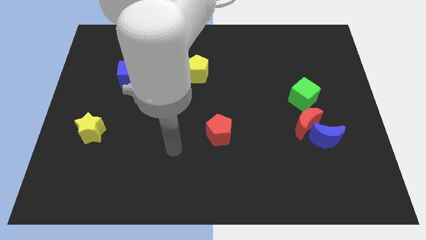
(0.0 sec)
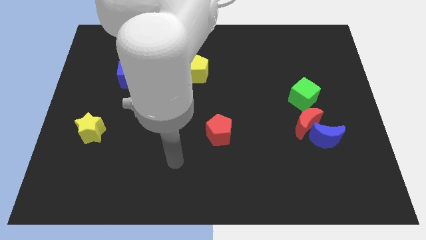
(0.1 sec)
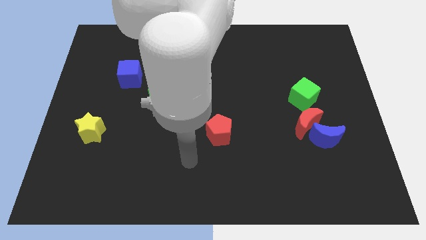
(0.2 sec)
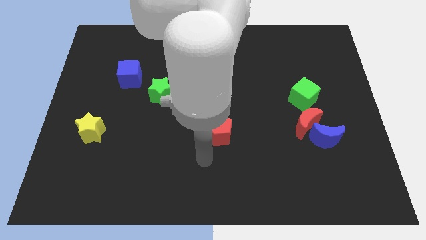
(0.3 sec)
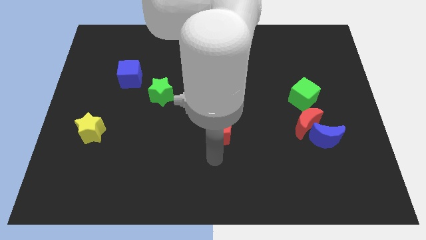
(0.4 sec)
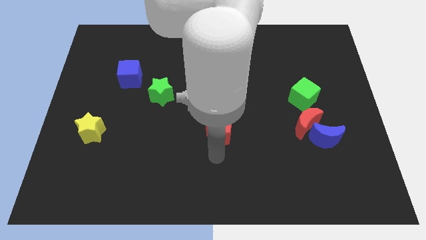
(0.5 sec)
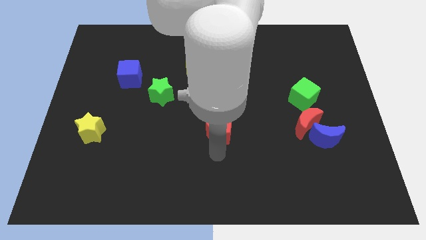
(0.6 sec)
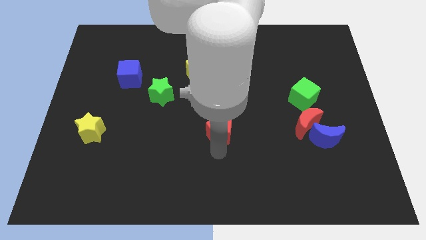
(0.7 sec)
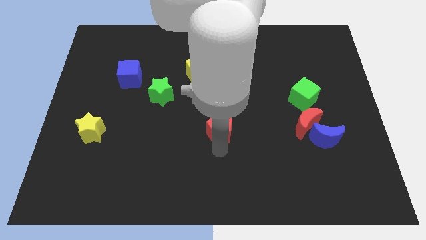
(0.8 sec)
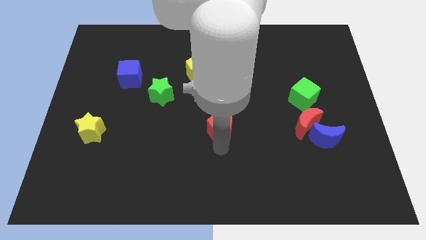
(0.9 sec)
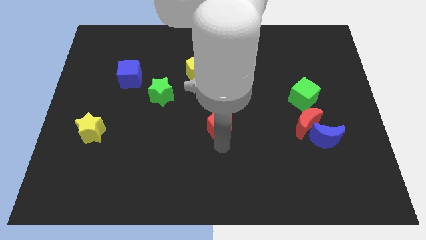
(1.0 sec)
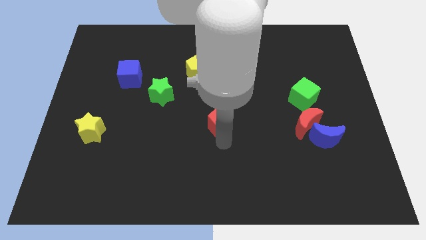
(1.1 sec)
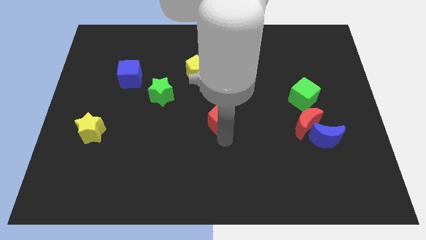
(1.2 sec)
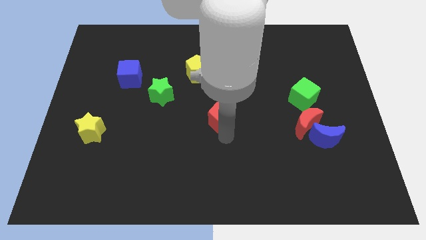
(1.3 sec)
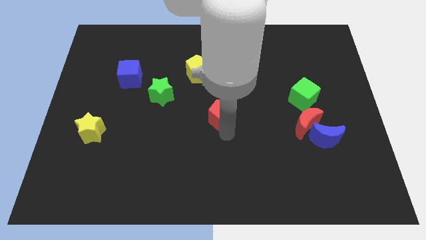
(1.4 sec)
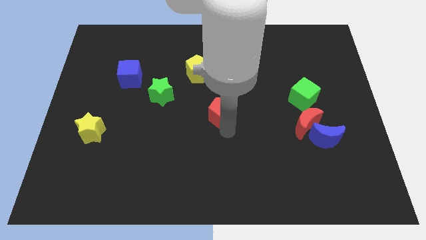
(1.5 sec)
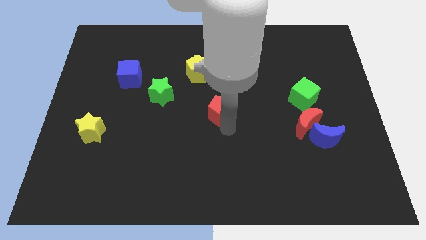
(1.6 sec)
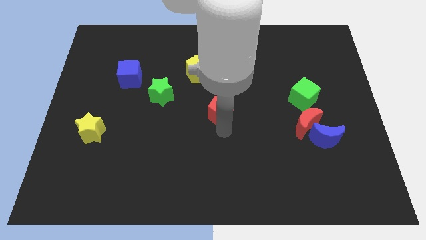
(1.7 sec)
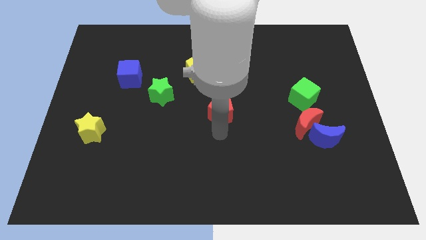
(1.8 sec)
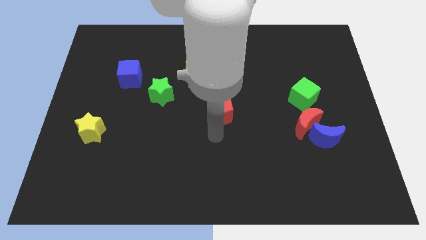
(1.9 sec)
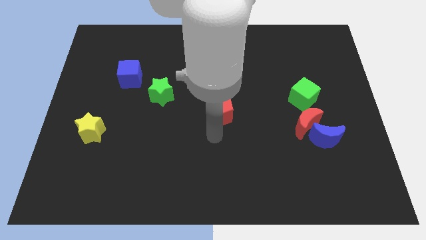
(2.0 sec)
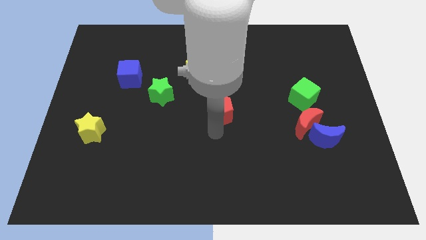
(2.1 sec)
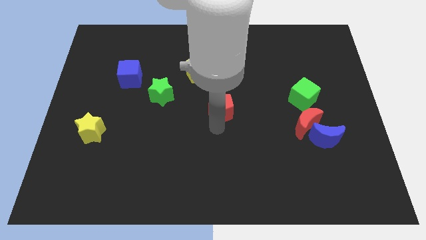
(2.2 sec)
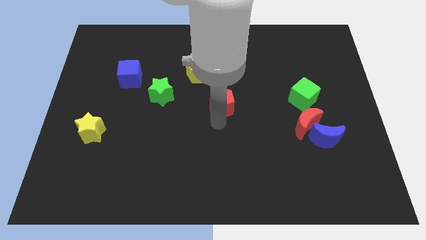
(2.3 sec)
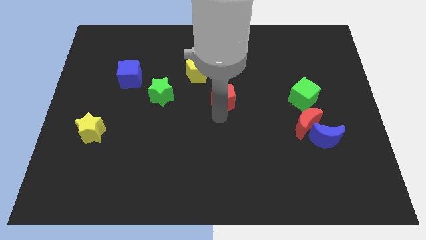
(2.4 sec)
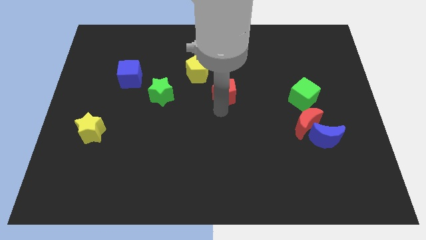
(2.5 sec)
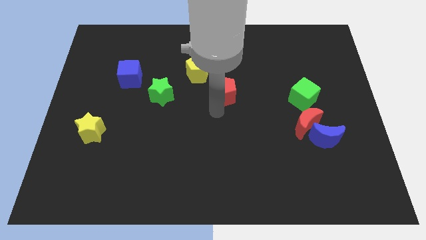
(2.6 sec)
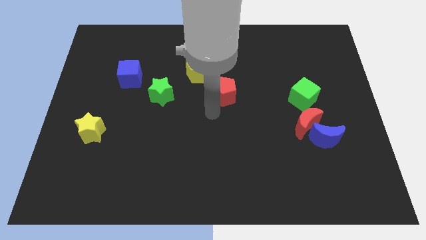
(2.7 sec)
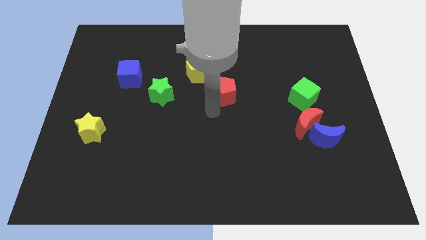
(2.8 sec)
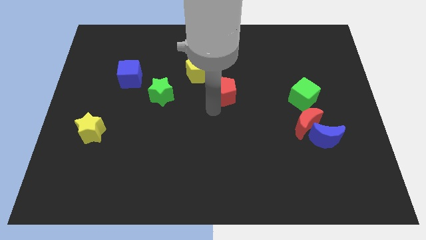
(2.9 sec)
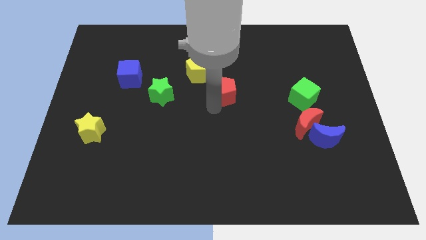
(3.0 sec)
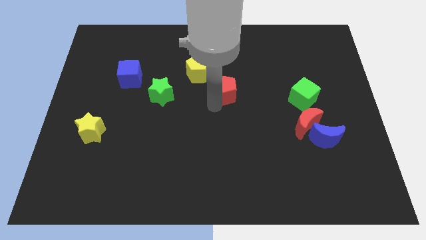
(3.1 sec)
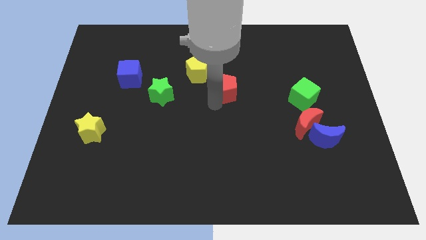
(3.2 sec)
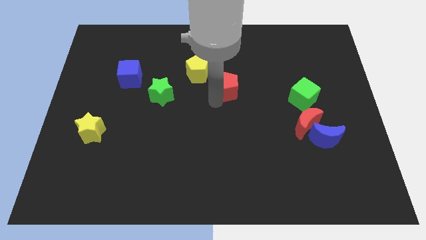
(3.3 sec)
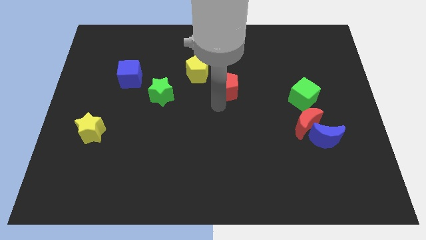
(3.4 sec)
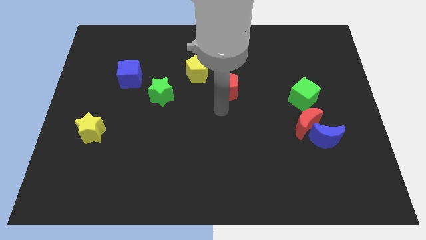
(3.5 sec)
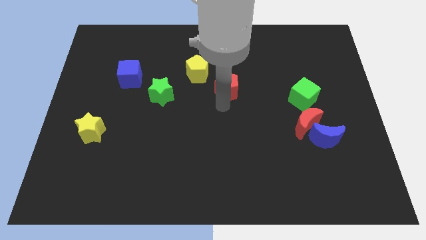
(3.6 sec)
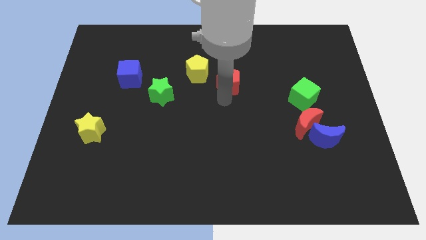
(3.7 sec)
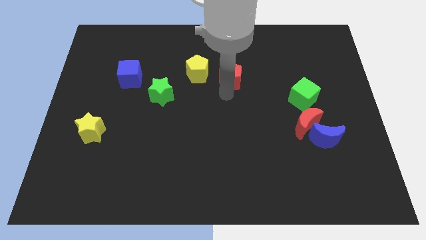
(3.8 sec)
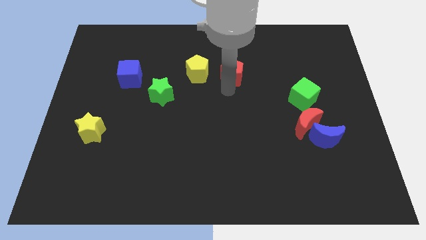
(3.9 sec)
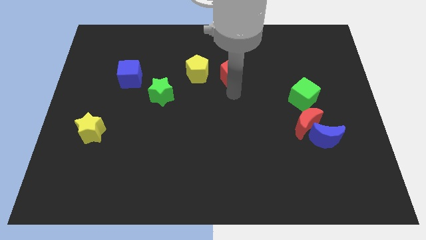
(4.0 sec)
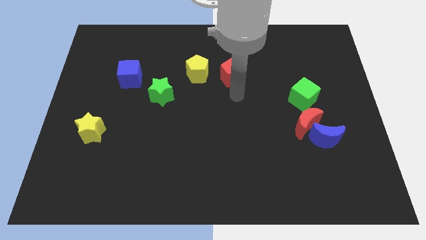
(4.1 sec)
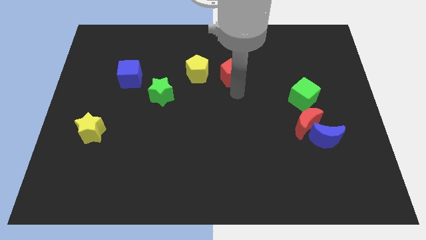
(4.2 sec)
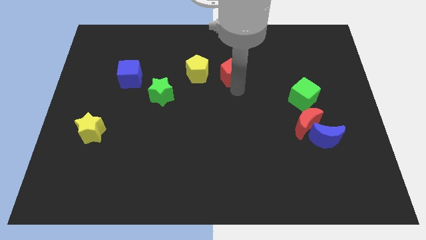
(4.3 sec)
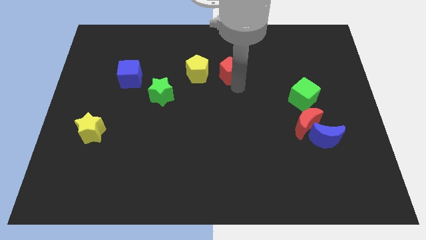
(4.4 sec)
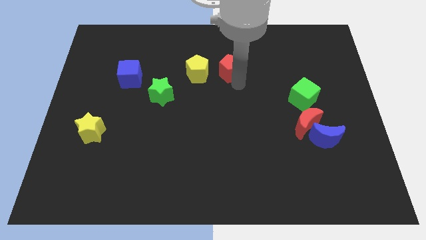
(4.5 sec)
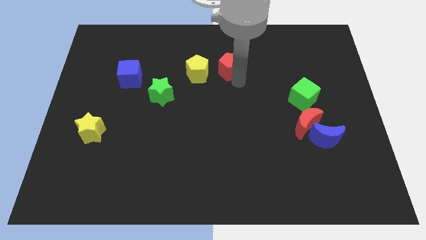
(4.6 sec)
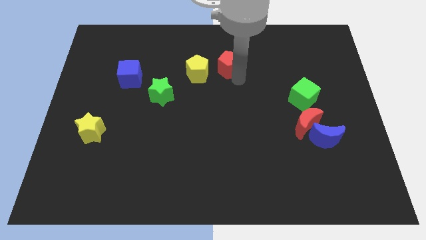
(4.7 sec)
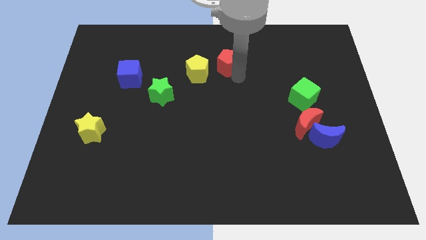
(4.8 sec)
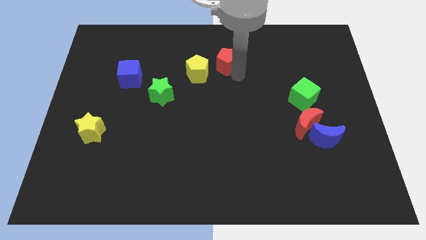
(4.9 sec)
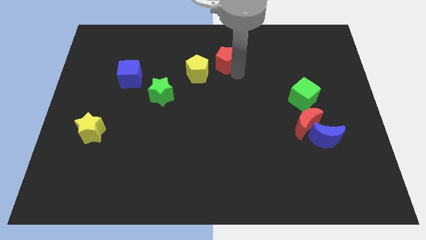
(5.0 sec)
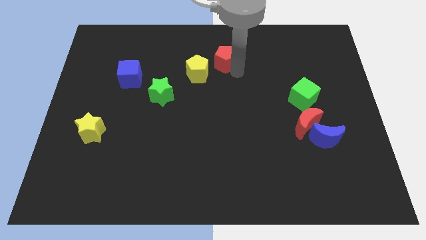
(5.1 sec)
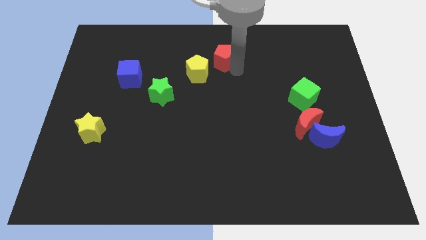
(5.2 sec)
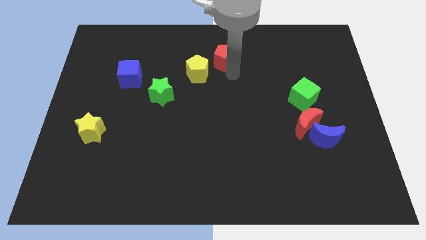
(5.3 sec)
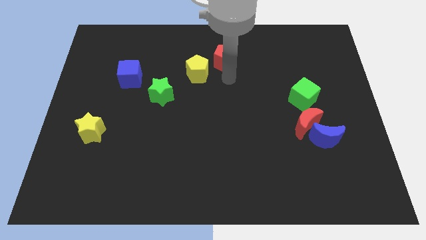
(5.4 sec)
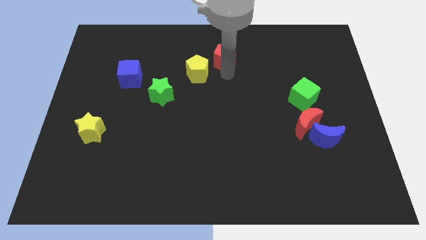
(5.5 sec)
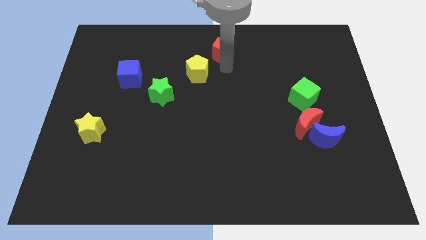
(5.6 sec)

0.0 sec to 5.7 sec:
slide the red pentagon to the top side
